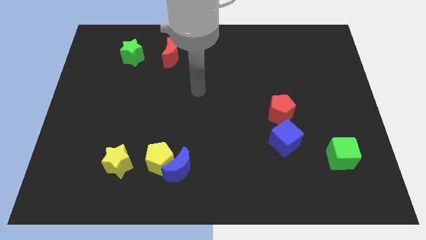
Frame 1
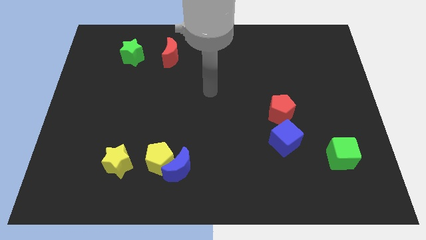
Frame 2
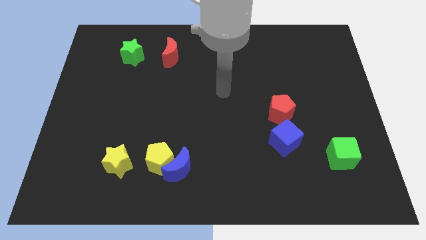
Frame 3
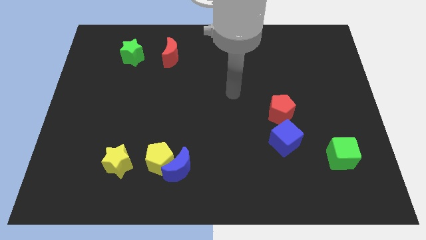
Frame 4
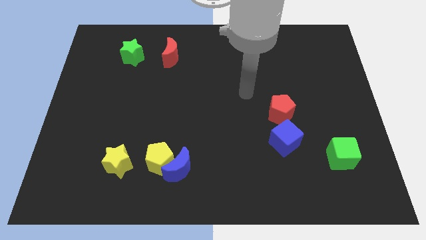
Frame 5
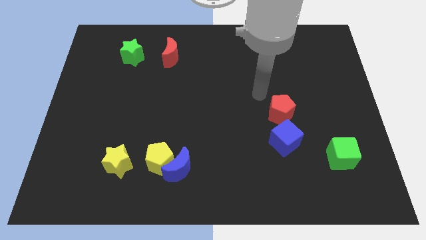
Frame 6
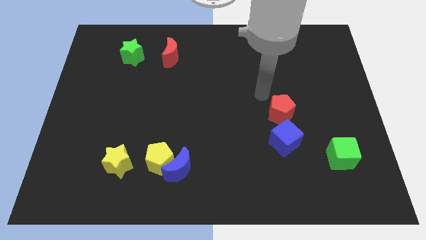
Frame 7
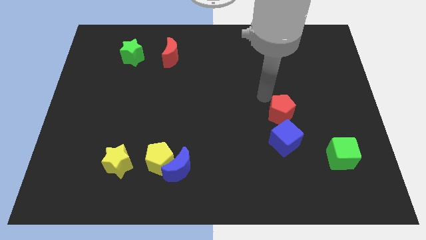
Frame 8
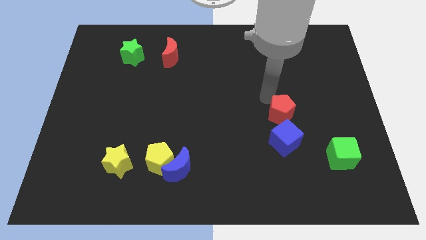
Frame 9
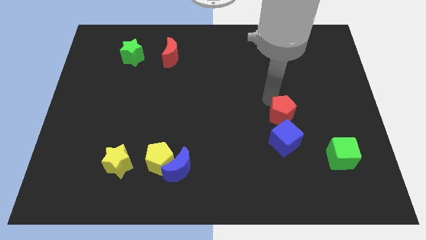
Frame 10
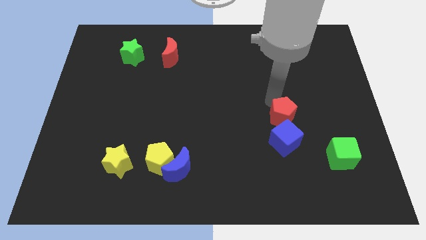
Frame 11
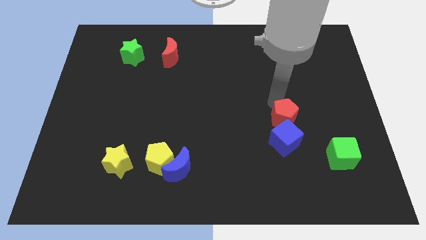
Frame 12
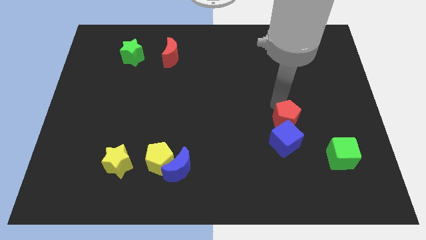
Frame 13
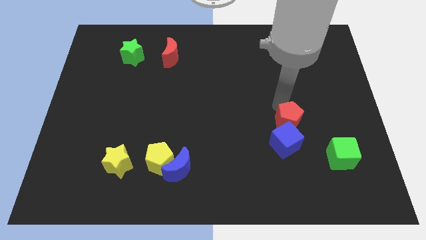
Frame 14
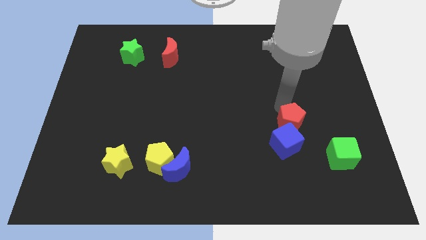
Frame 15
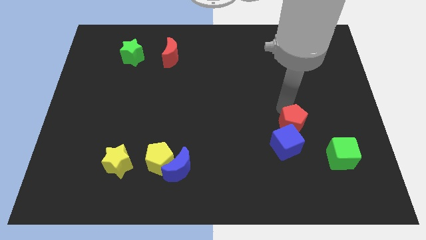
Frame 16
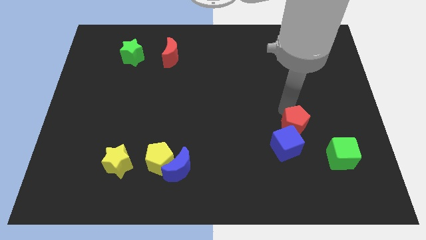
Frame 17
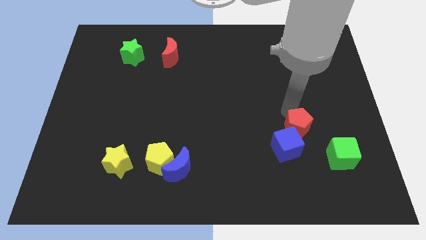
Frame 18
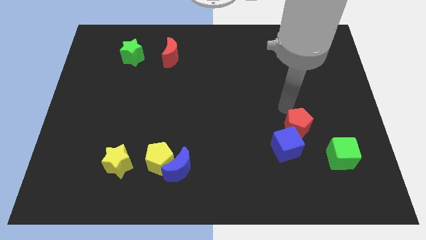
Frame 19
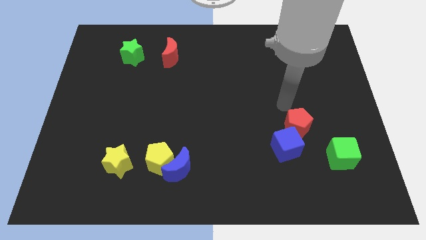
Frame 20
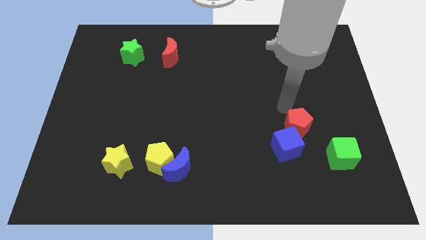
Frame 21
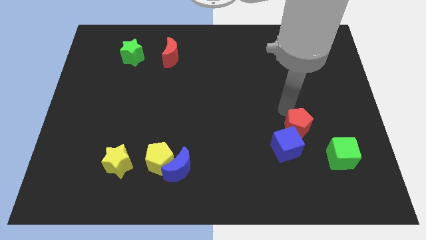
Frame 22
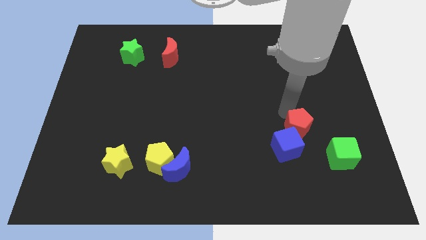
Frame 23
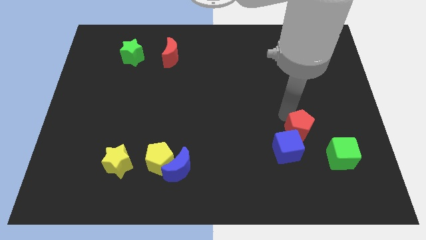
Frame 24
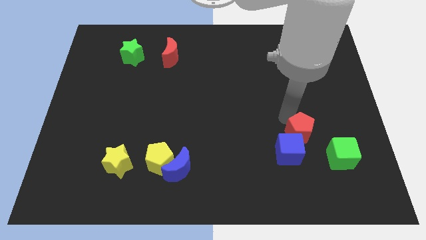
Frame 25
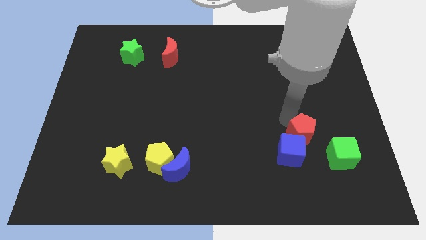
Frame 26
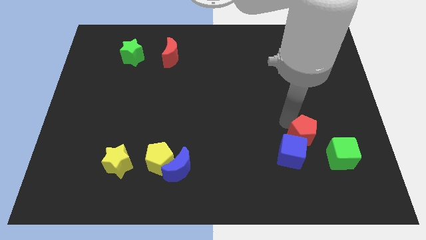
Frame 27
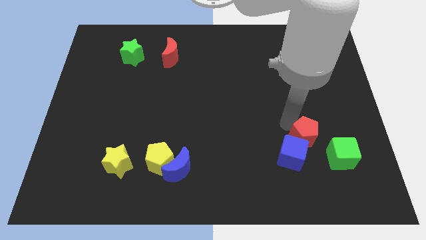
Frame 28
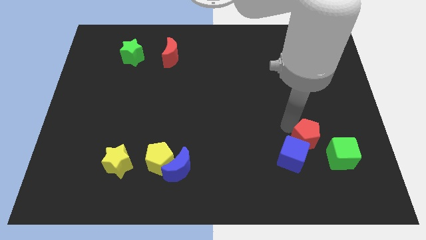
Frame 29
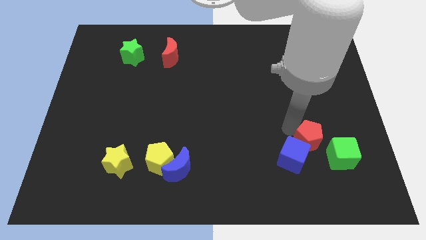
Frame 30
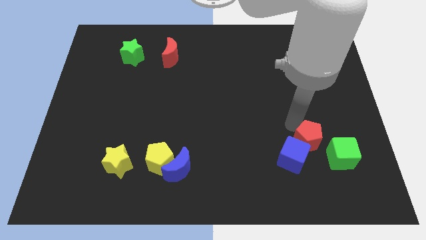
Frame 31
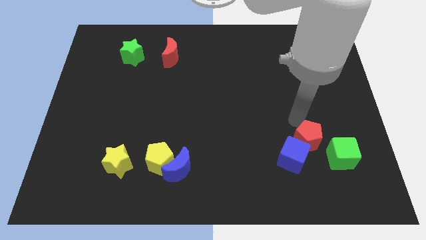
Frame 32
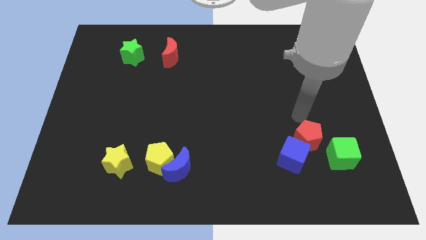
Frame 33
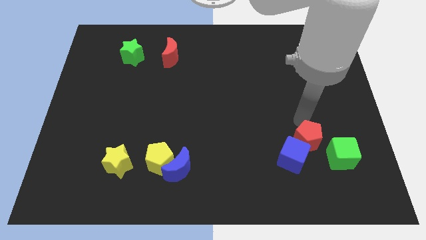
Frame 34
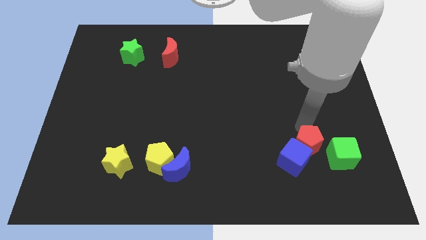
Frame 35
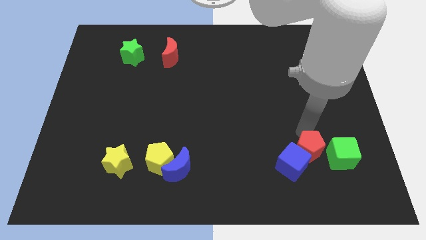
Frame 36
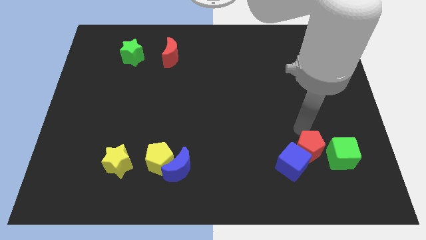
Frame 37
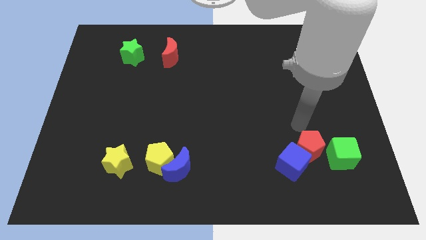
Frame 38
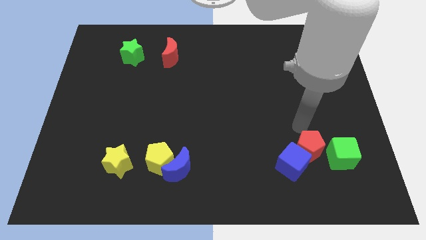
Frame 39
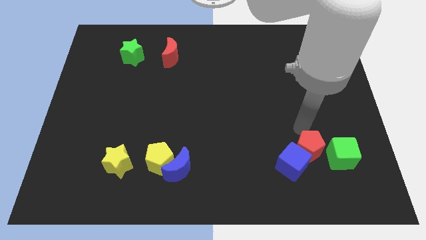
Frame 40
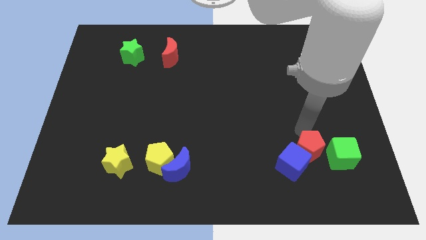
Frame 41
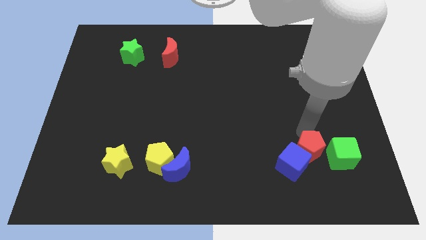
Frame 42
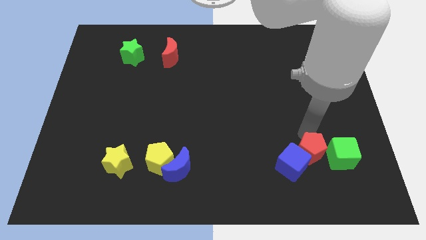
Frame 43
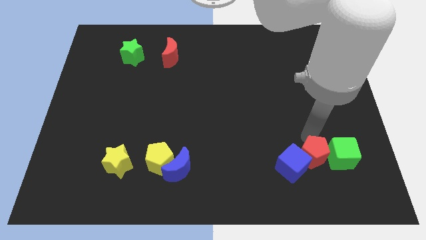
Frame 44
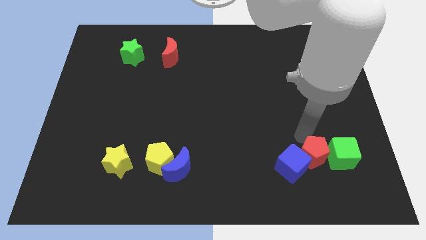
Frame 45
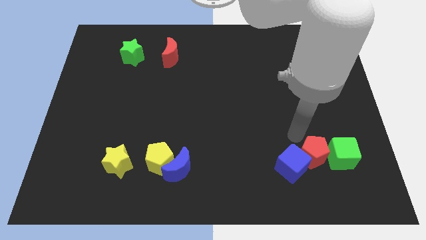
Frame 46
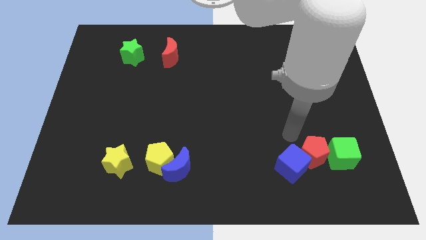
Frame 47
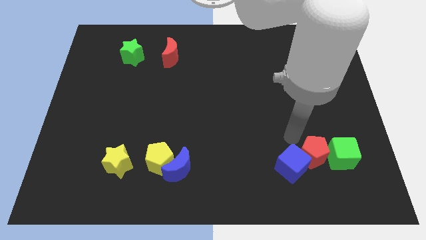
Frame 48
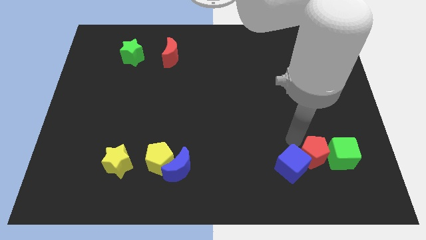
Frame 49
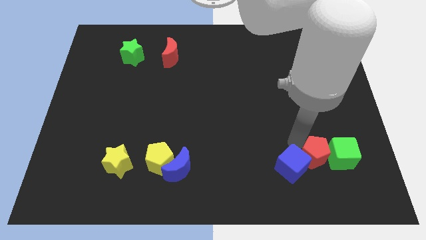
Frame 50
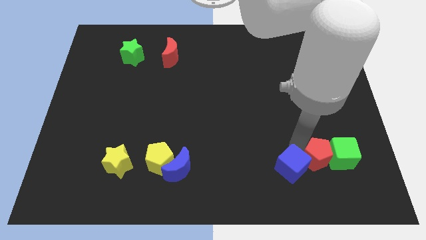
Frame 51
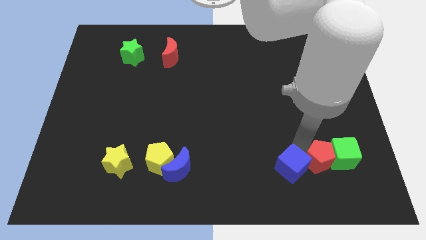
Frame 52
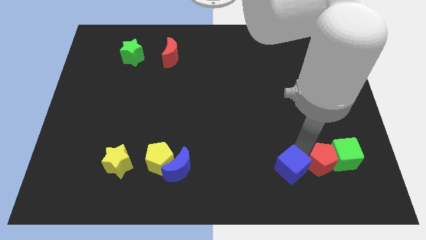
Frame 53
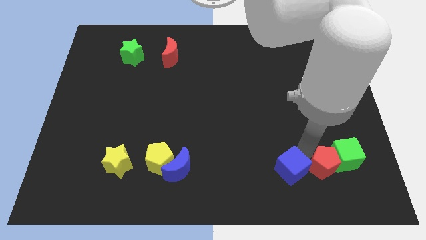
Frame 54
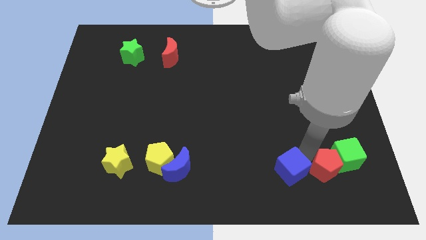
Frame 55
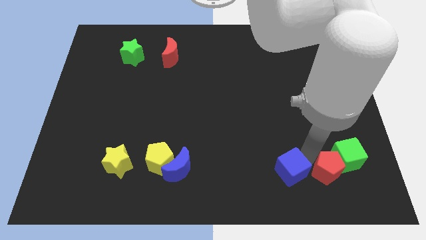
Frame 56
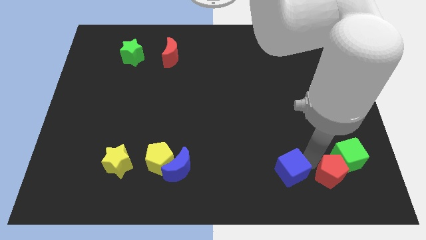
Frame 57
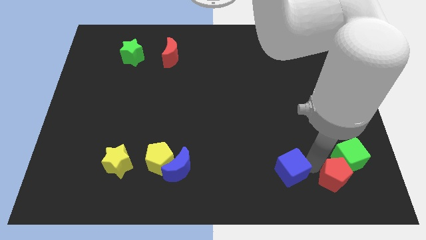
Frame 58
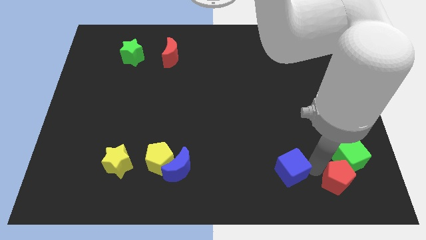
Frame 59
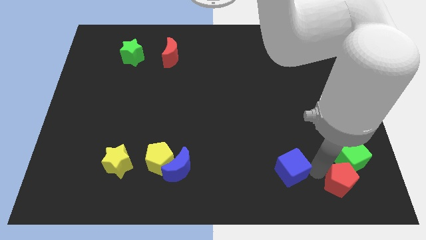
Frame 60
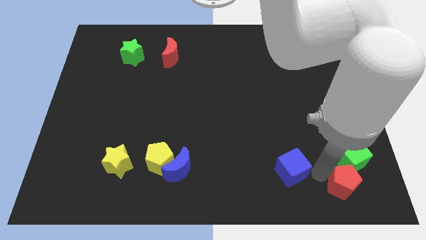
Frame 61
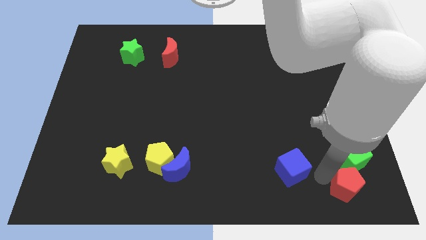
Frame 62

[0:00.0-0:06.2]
put the red pentagon to the lower right corner
